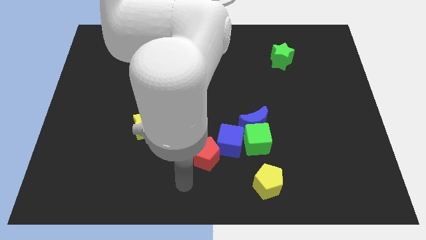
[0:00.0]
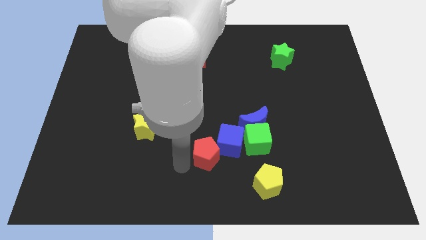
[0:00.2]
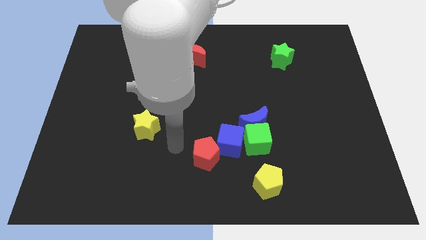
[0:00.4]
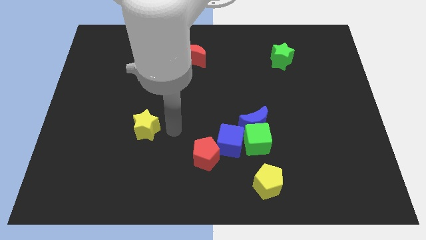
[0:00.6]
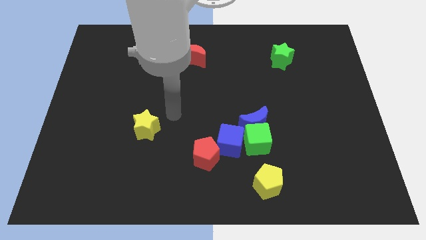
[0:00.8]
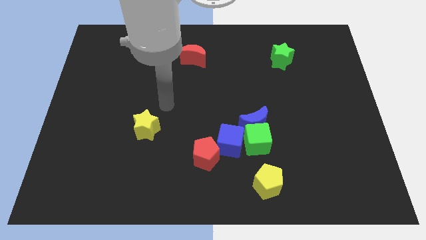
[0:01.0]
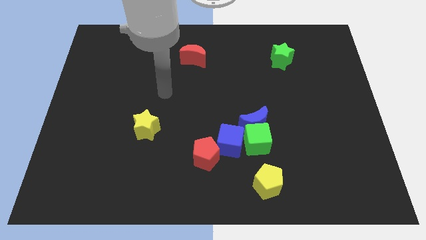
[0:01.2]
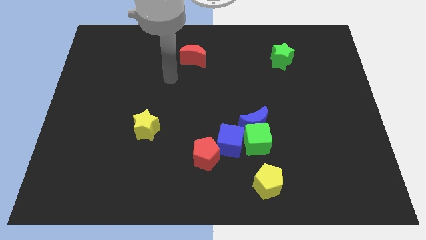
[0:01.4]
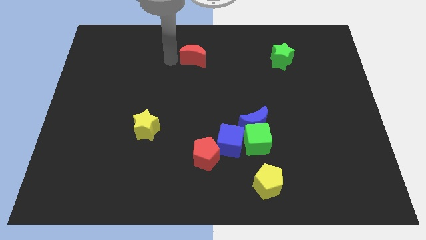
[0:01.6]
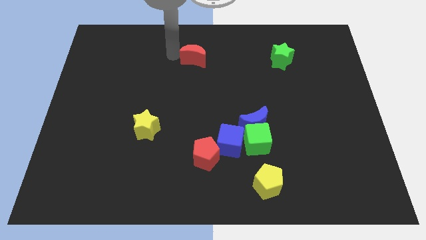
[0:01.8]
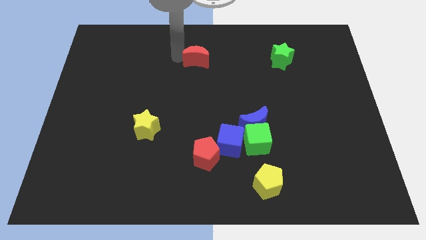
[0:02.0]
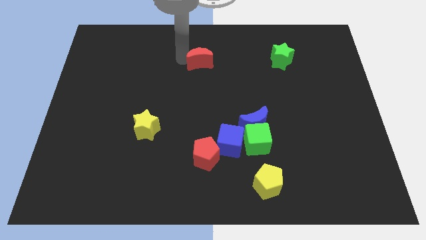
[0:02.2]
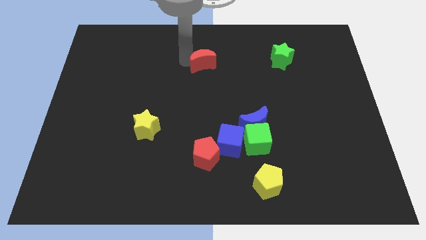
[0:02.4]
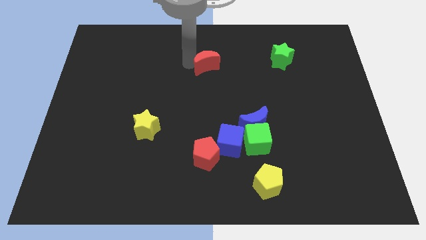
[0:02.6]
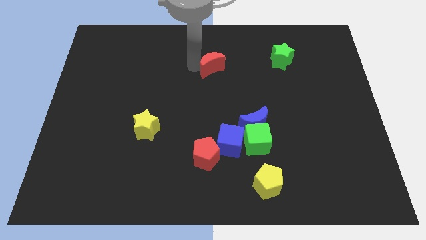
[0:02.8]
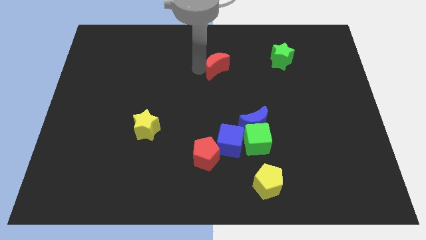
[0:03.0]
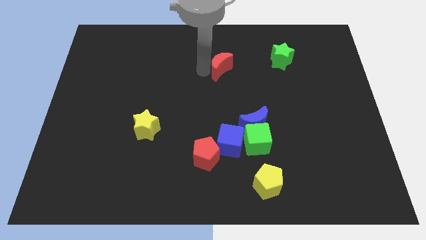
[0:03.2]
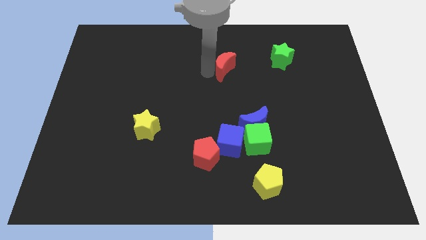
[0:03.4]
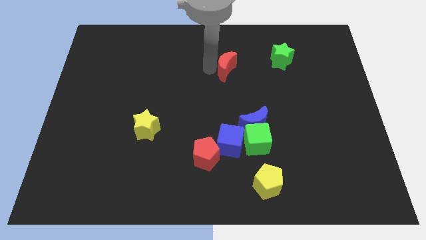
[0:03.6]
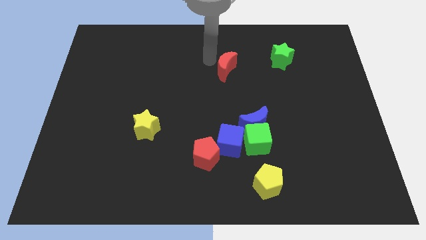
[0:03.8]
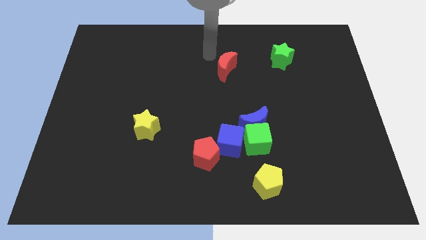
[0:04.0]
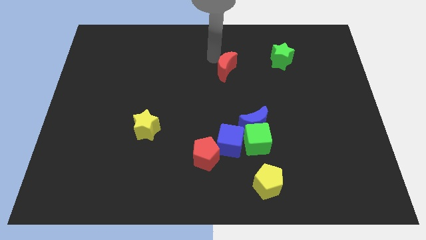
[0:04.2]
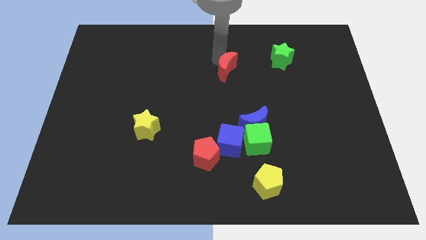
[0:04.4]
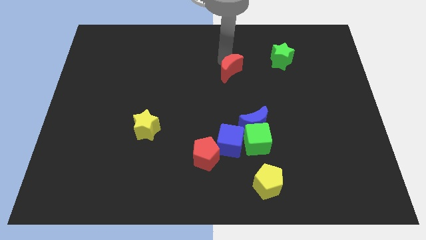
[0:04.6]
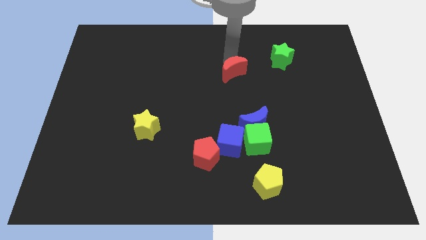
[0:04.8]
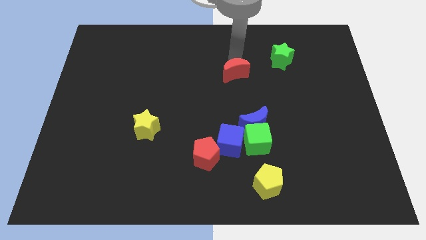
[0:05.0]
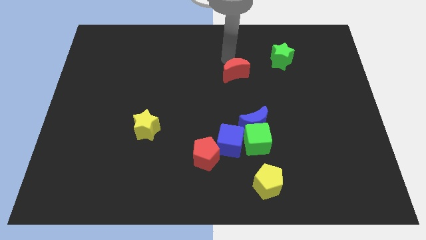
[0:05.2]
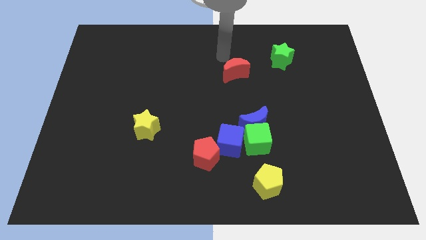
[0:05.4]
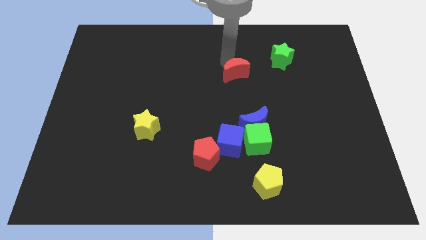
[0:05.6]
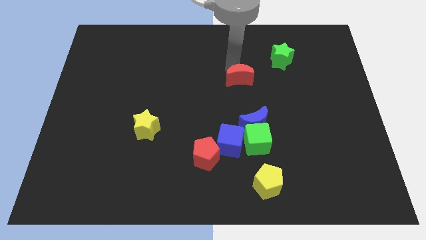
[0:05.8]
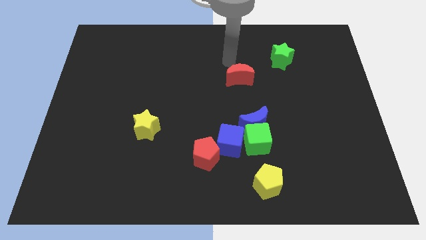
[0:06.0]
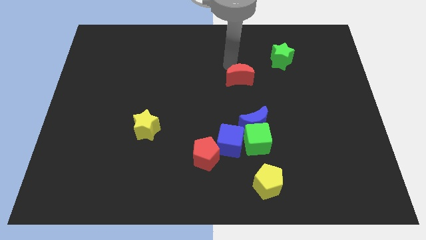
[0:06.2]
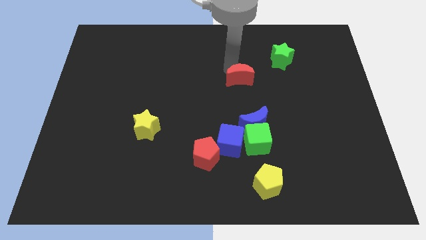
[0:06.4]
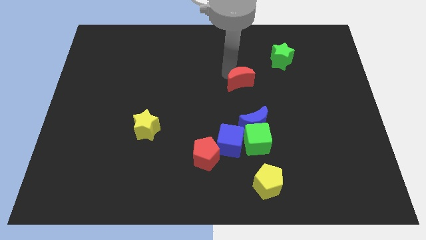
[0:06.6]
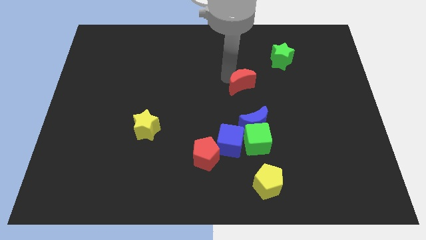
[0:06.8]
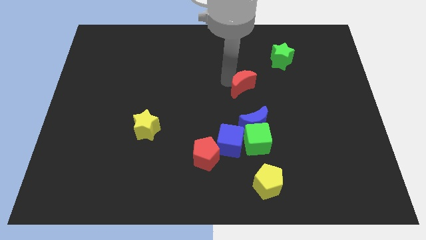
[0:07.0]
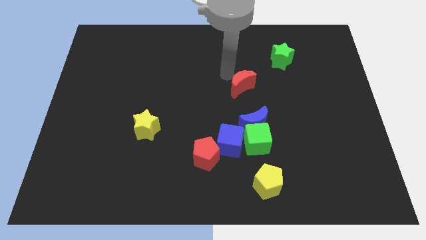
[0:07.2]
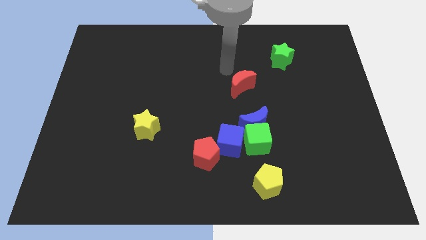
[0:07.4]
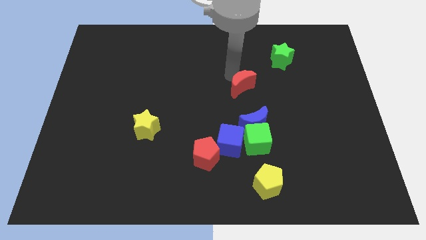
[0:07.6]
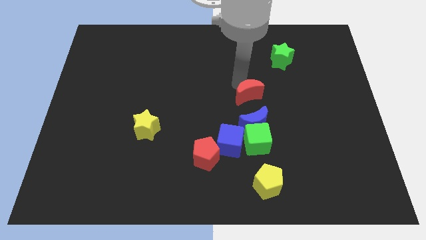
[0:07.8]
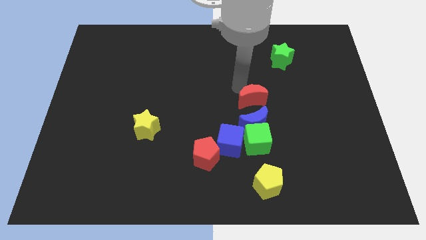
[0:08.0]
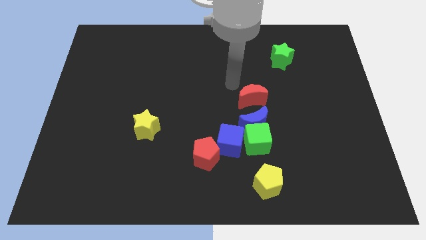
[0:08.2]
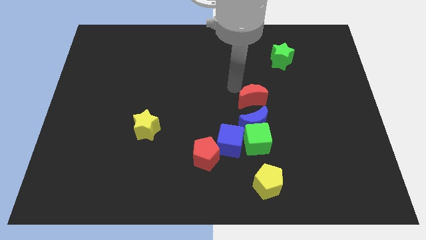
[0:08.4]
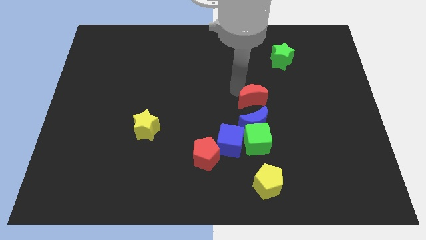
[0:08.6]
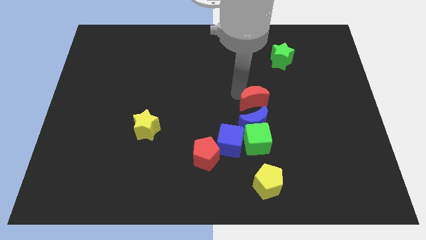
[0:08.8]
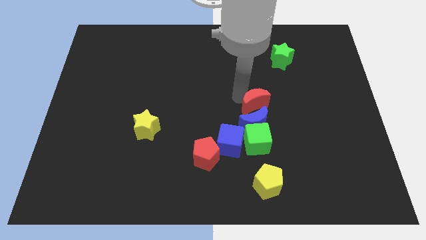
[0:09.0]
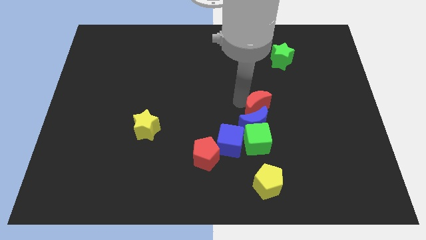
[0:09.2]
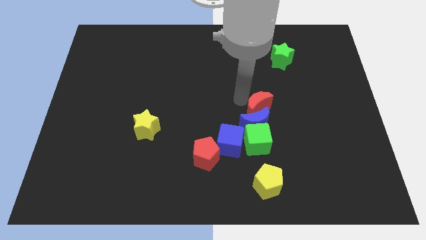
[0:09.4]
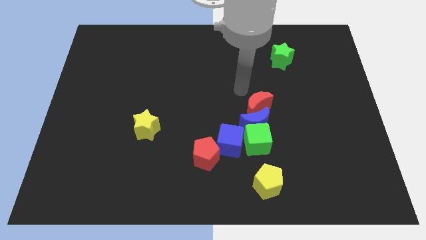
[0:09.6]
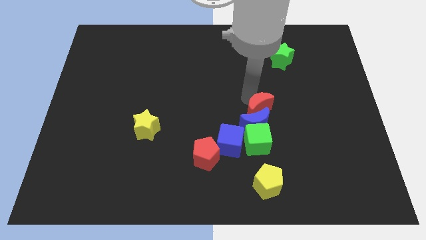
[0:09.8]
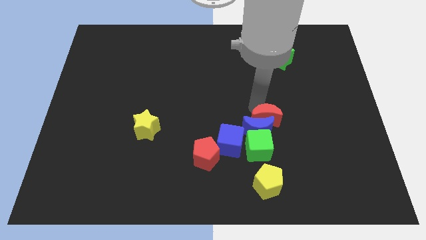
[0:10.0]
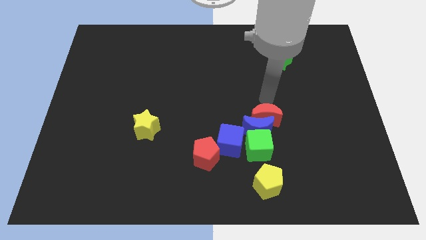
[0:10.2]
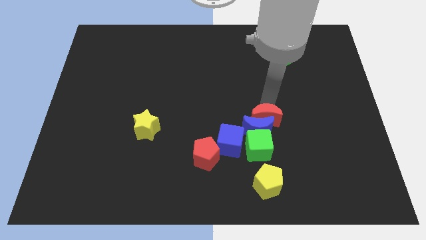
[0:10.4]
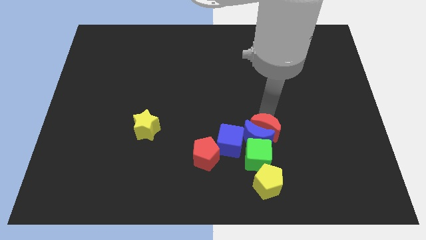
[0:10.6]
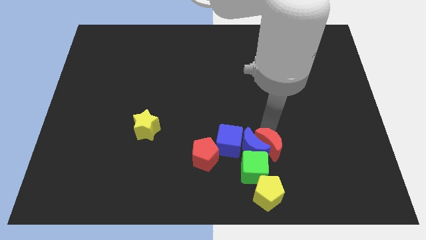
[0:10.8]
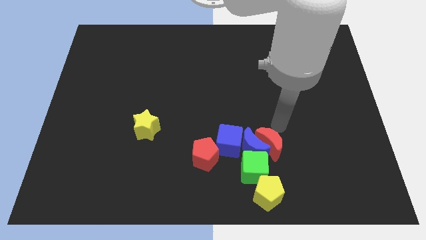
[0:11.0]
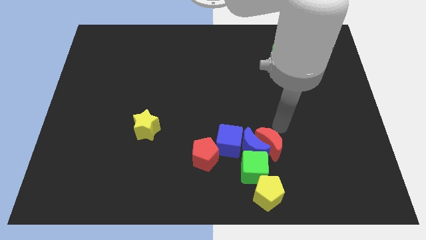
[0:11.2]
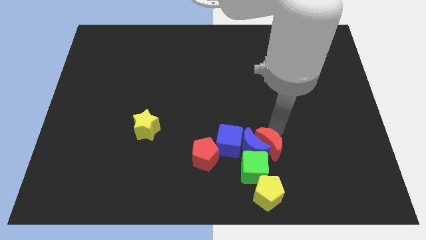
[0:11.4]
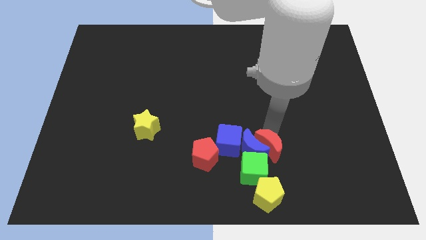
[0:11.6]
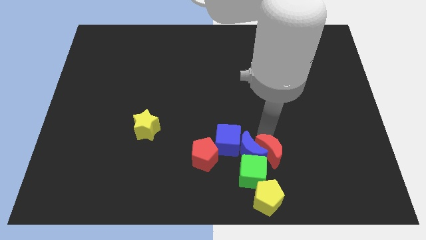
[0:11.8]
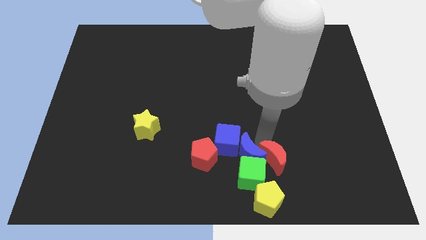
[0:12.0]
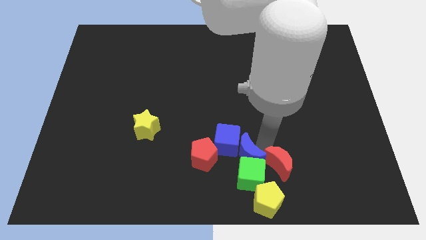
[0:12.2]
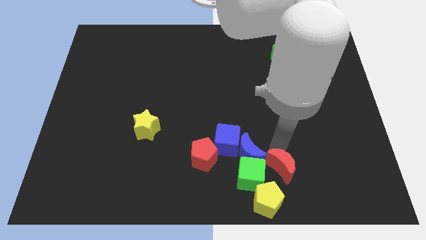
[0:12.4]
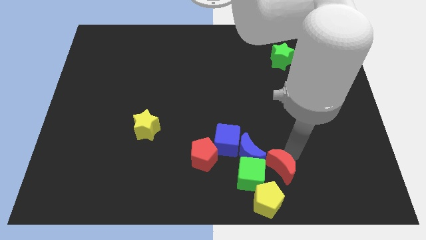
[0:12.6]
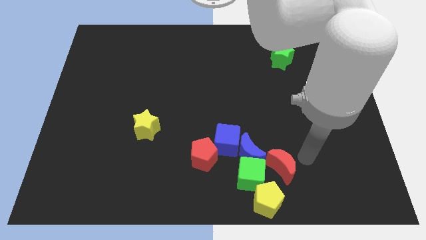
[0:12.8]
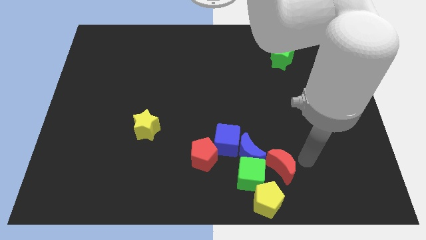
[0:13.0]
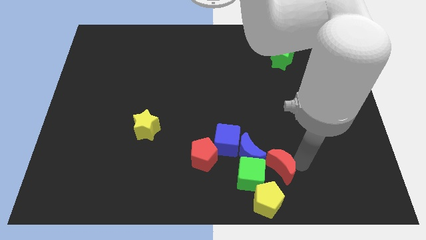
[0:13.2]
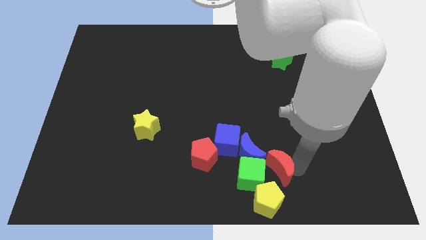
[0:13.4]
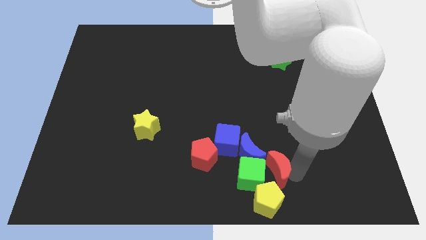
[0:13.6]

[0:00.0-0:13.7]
put the red moon close to the green cube

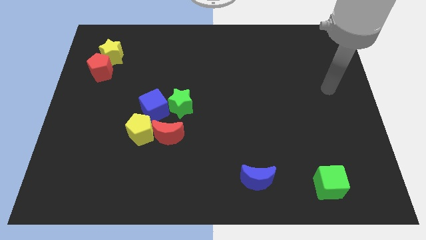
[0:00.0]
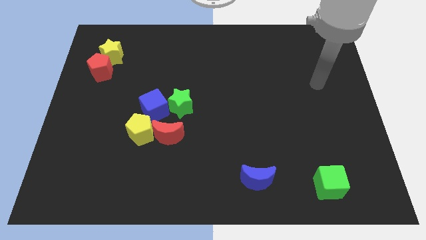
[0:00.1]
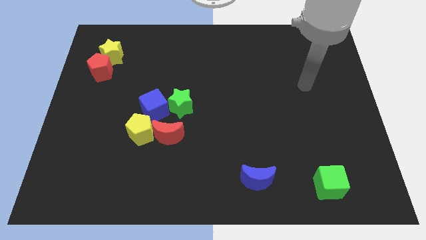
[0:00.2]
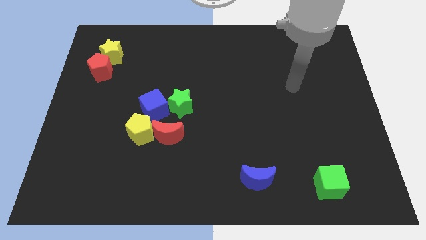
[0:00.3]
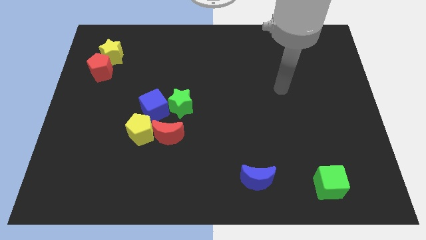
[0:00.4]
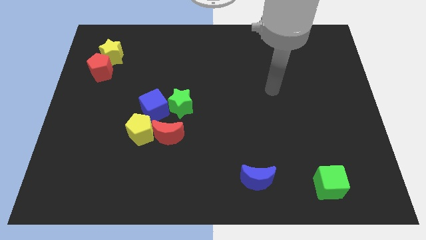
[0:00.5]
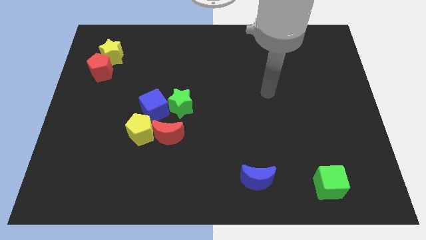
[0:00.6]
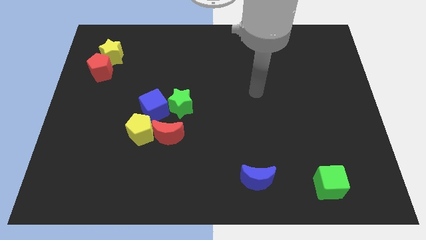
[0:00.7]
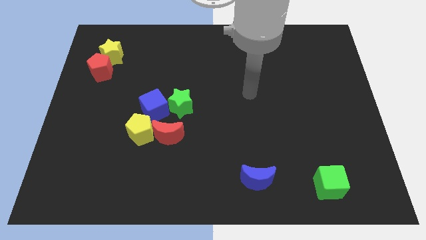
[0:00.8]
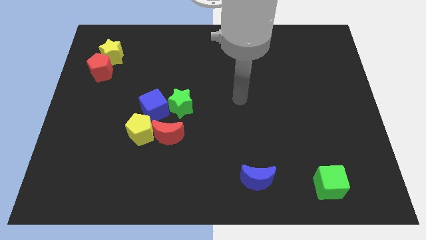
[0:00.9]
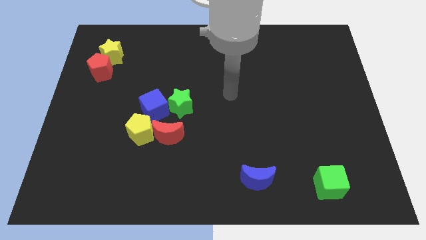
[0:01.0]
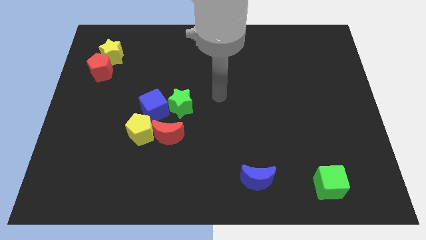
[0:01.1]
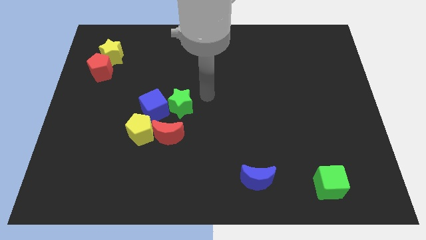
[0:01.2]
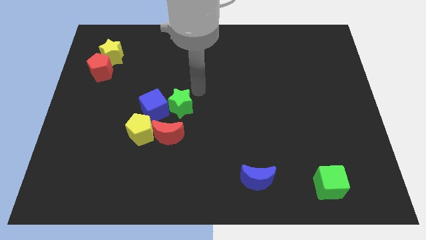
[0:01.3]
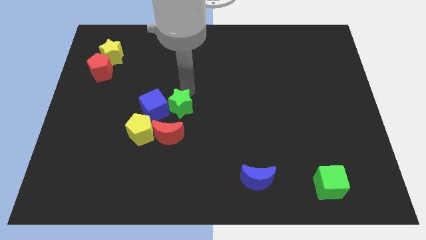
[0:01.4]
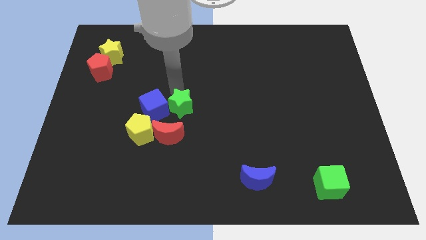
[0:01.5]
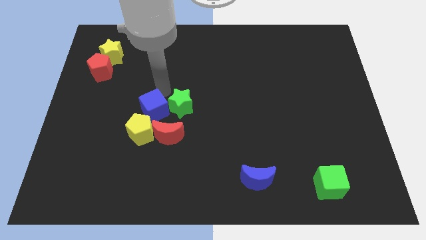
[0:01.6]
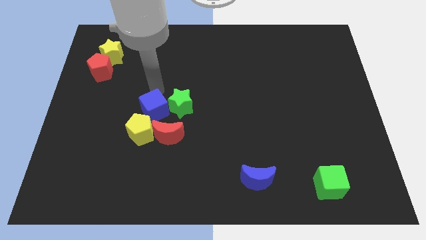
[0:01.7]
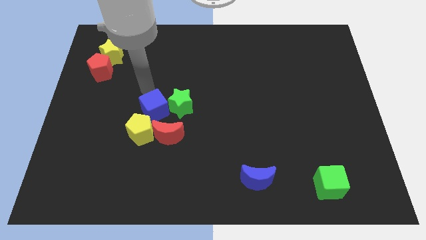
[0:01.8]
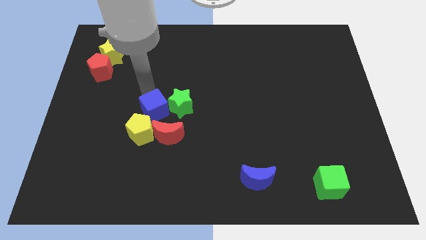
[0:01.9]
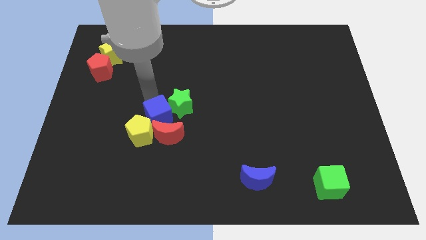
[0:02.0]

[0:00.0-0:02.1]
push the blue cube to the red moon
